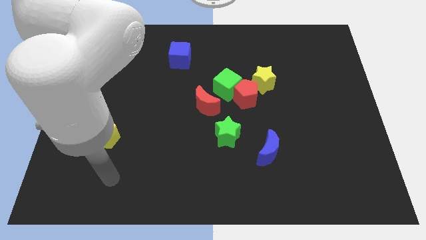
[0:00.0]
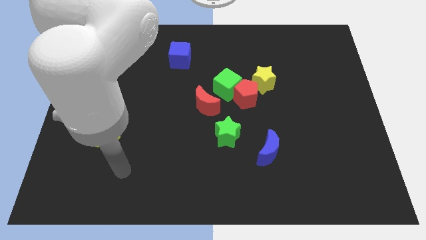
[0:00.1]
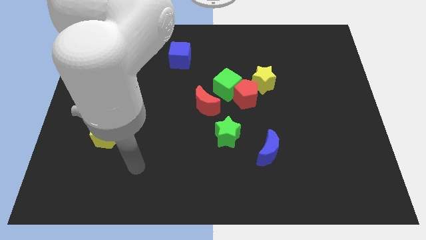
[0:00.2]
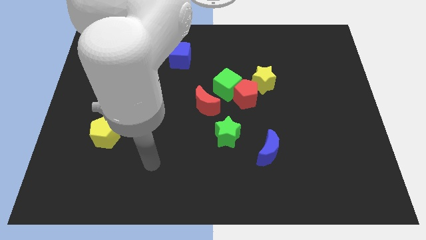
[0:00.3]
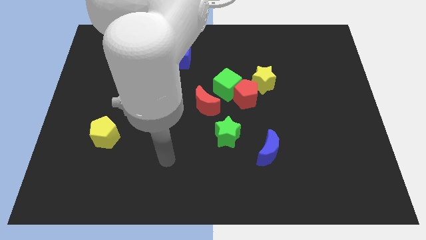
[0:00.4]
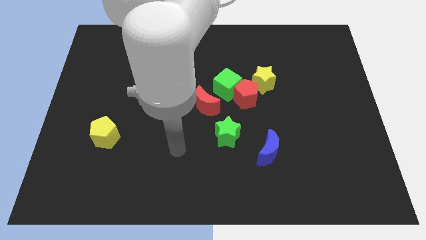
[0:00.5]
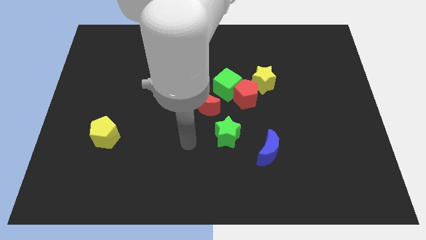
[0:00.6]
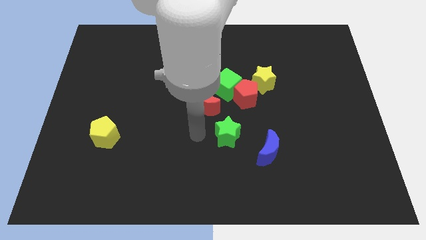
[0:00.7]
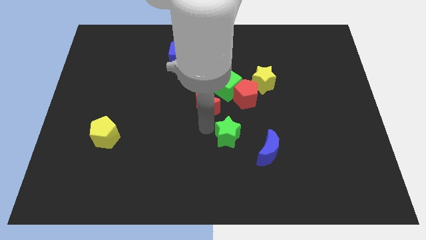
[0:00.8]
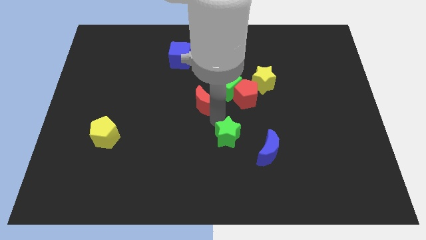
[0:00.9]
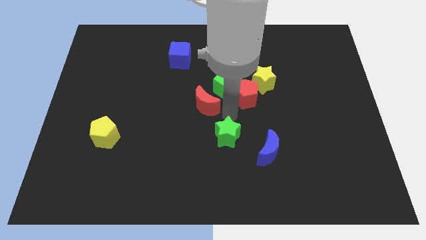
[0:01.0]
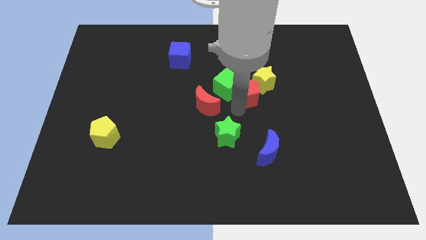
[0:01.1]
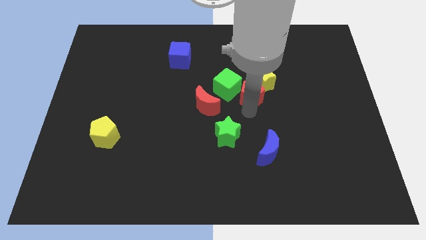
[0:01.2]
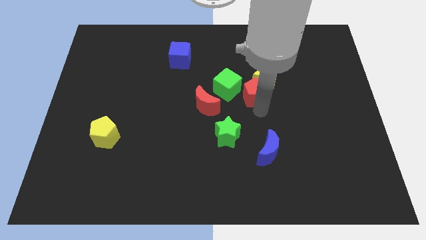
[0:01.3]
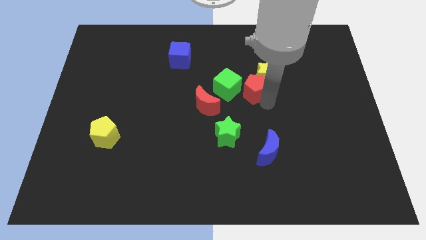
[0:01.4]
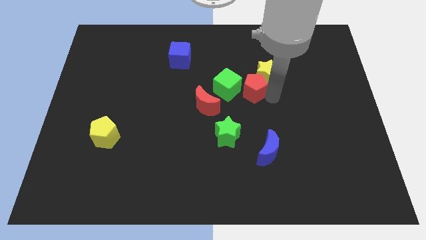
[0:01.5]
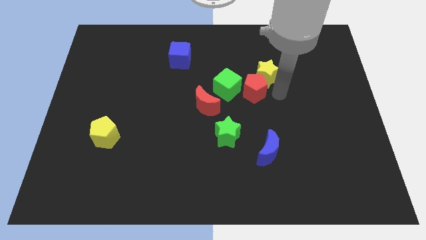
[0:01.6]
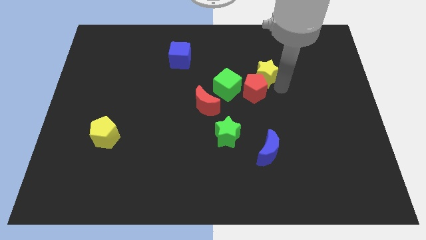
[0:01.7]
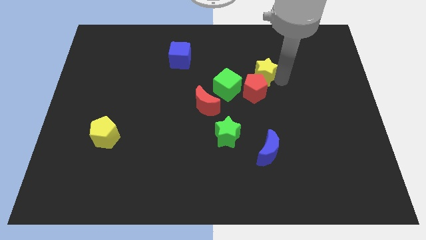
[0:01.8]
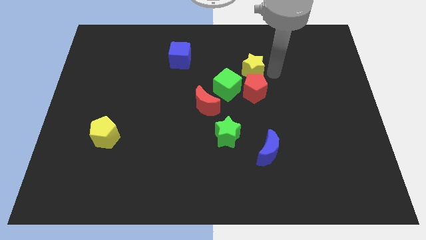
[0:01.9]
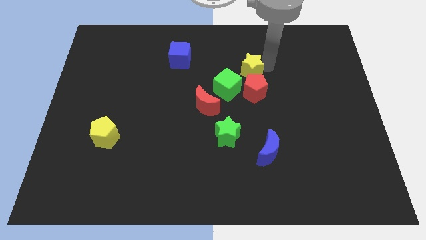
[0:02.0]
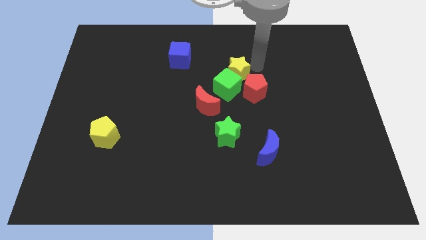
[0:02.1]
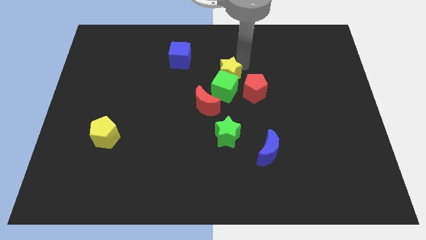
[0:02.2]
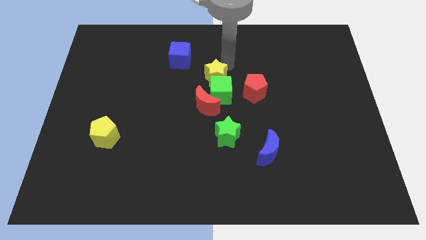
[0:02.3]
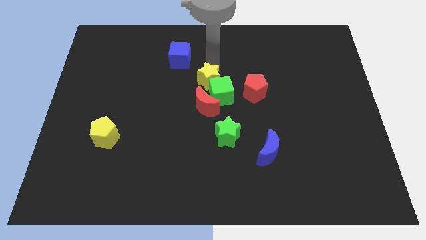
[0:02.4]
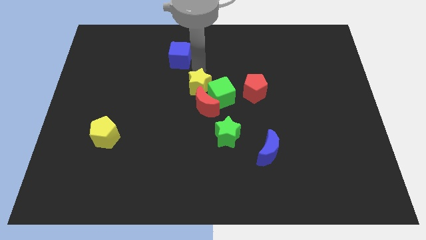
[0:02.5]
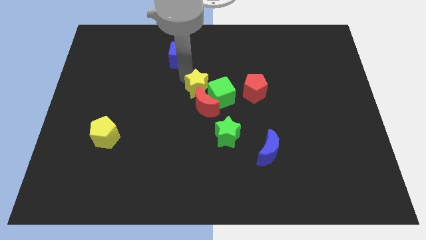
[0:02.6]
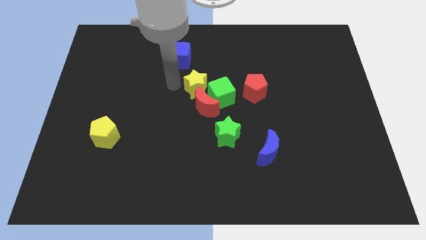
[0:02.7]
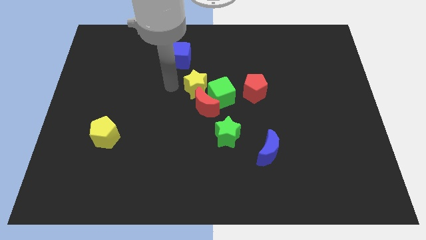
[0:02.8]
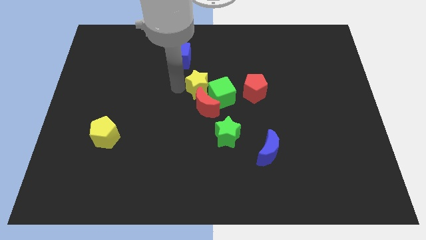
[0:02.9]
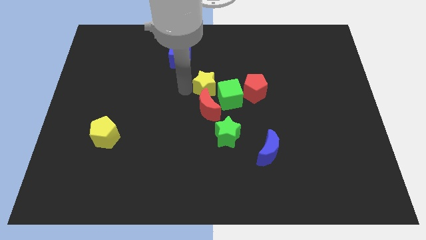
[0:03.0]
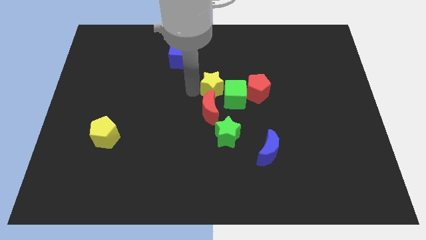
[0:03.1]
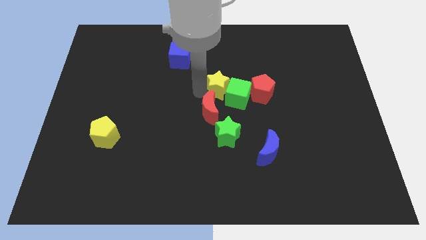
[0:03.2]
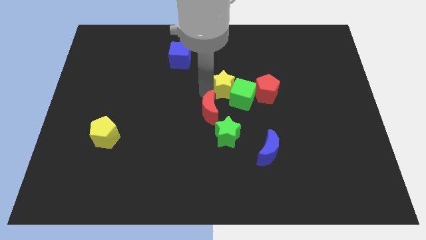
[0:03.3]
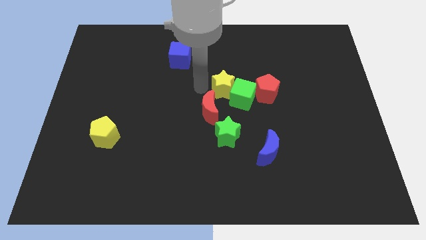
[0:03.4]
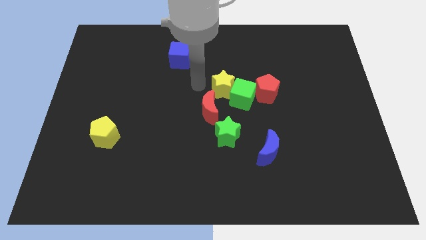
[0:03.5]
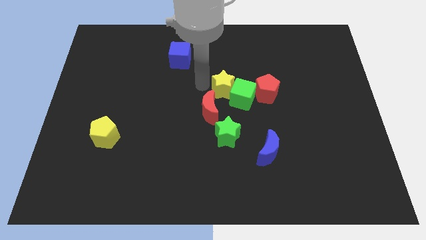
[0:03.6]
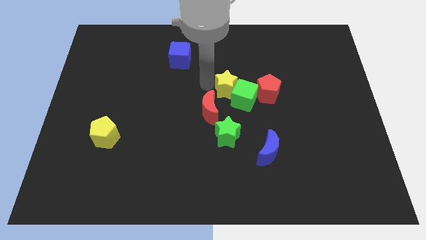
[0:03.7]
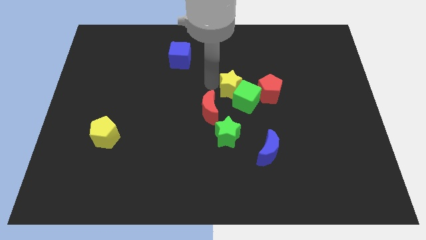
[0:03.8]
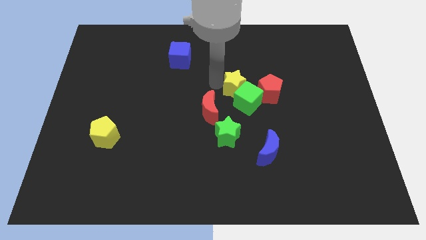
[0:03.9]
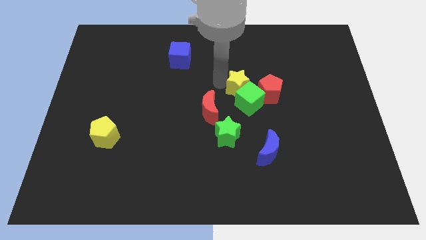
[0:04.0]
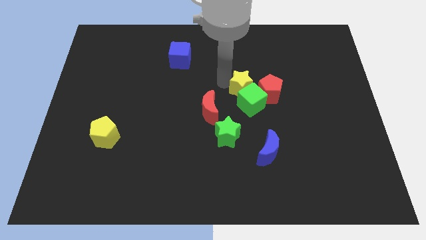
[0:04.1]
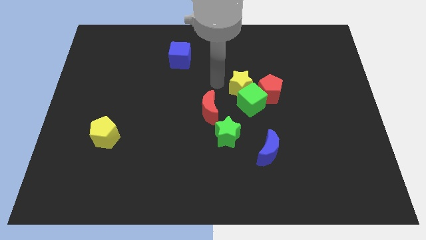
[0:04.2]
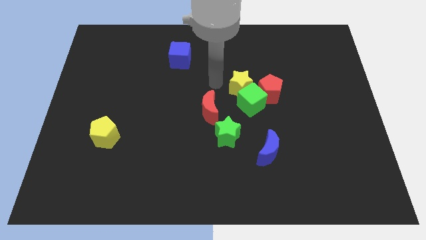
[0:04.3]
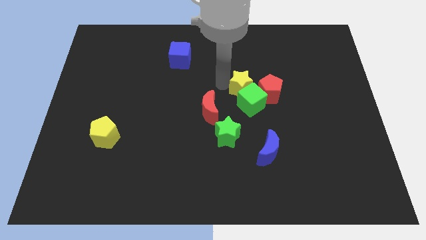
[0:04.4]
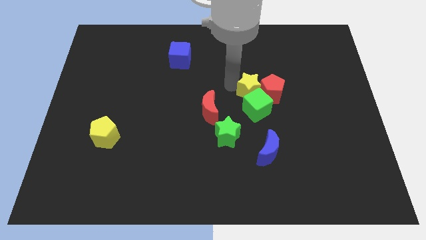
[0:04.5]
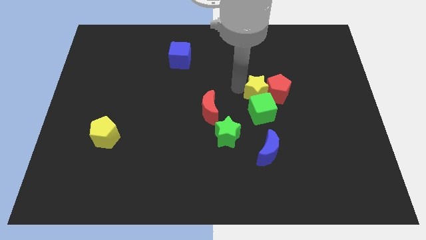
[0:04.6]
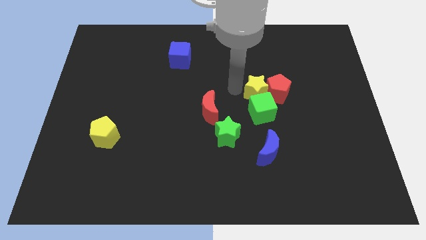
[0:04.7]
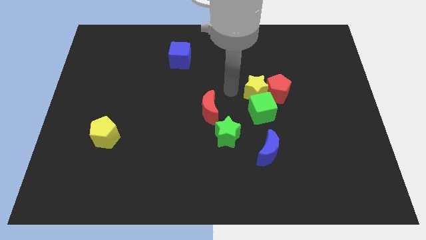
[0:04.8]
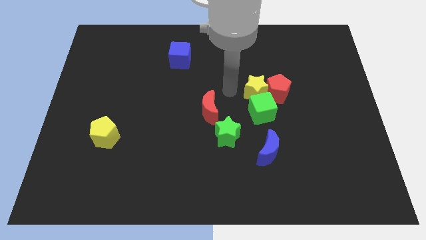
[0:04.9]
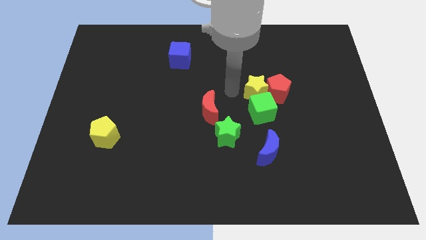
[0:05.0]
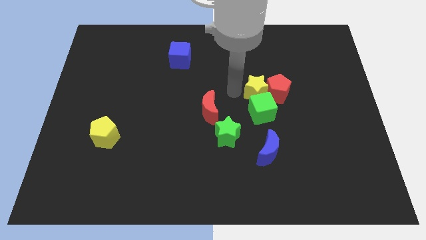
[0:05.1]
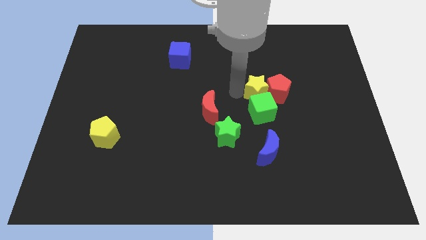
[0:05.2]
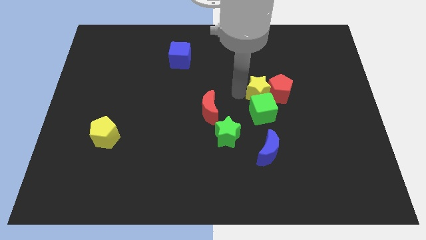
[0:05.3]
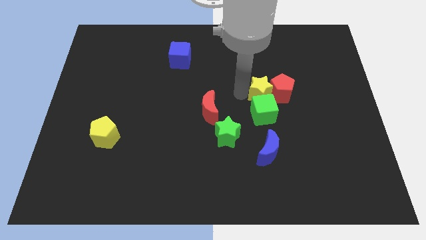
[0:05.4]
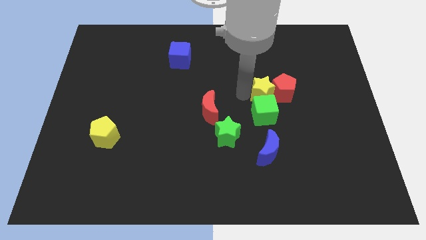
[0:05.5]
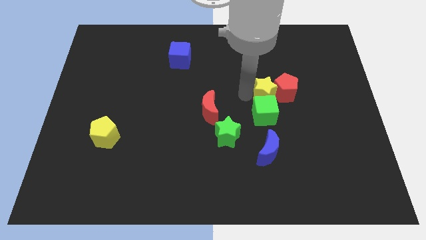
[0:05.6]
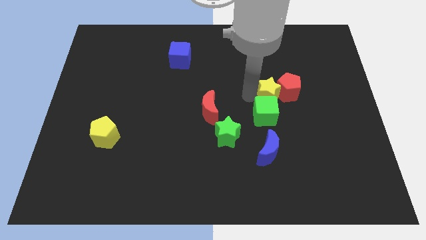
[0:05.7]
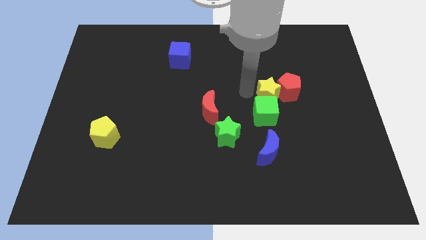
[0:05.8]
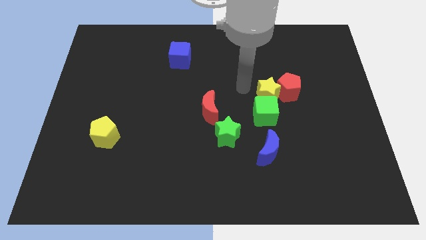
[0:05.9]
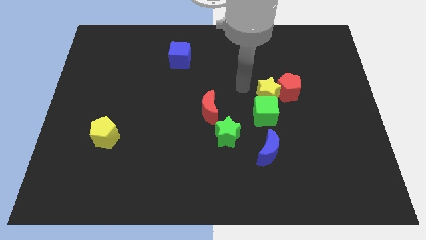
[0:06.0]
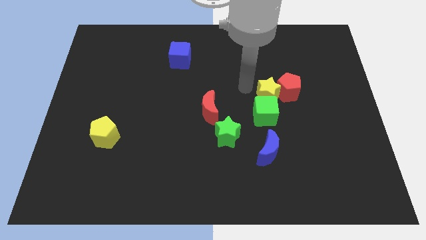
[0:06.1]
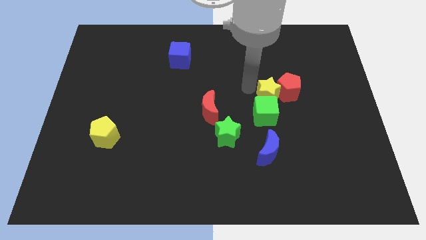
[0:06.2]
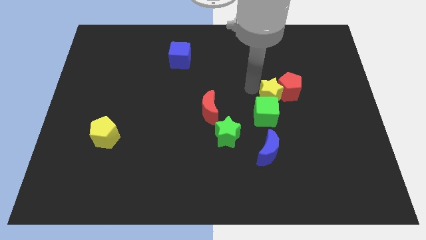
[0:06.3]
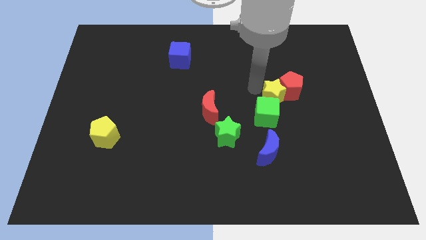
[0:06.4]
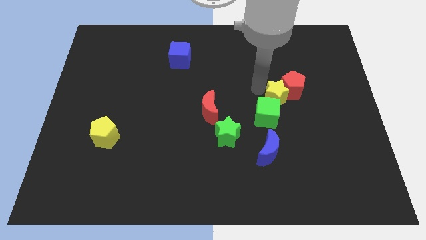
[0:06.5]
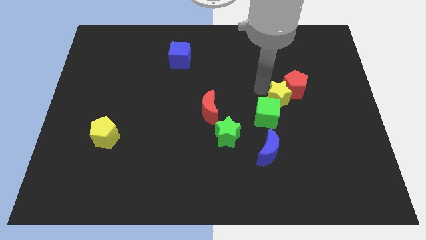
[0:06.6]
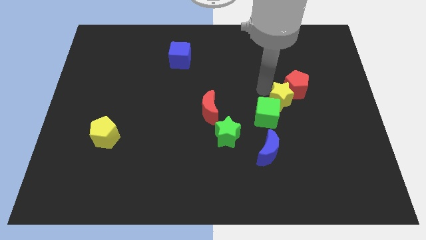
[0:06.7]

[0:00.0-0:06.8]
push the yellow star somewhat diagonally down and to the right

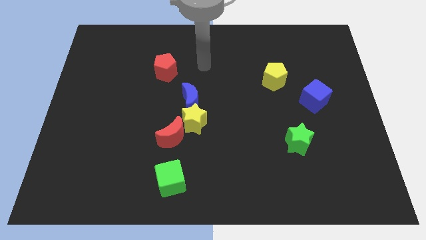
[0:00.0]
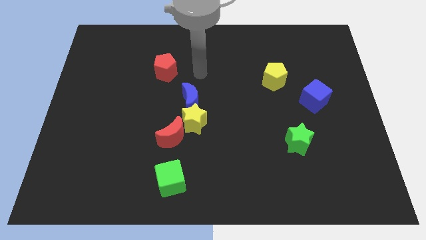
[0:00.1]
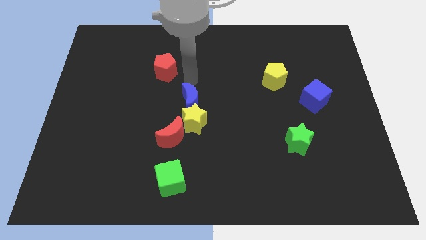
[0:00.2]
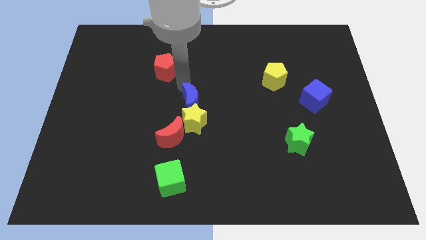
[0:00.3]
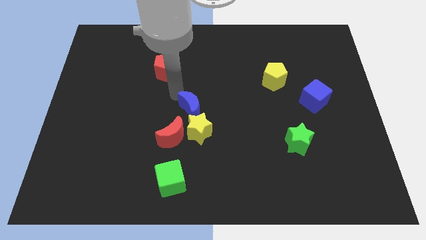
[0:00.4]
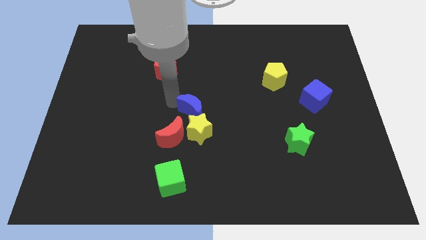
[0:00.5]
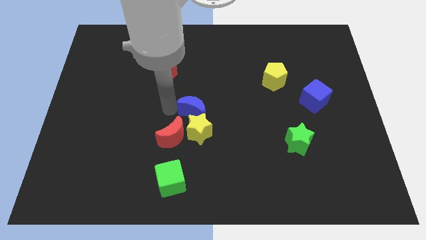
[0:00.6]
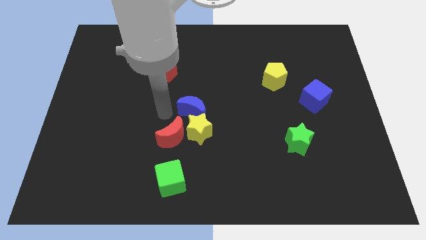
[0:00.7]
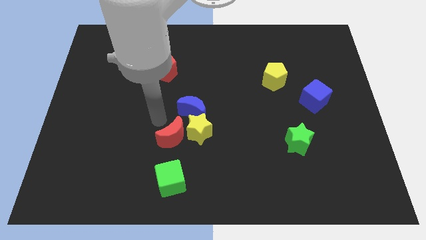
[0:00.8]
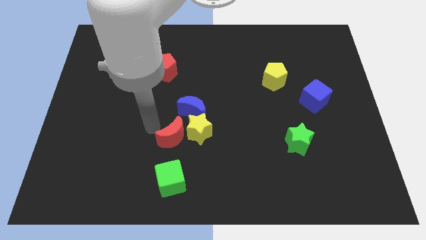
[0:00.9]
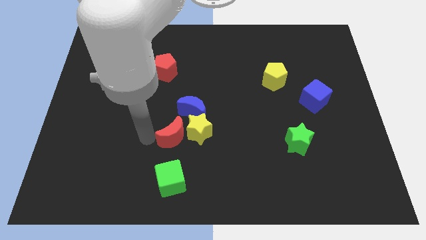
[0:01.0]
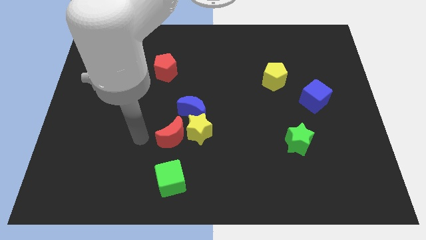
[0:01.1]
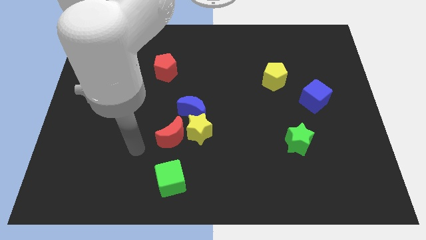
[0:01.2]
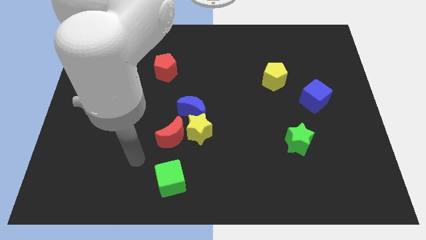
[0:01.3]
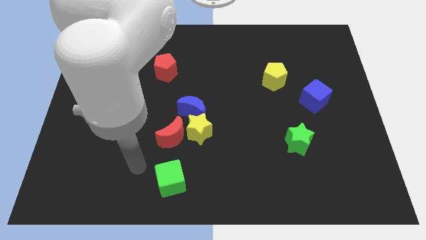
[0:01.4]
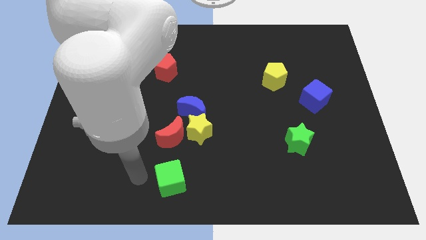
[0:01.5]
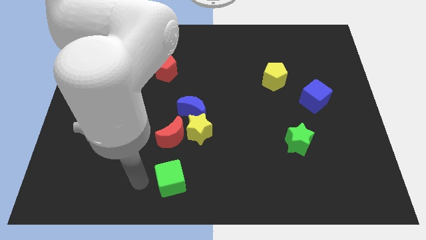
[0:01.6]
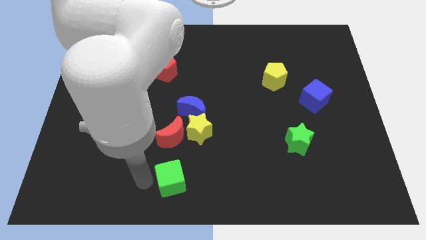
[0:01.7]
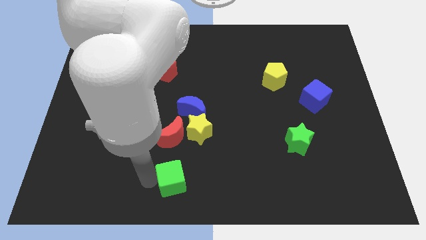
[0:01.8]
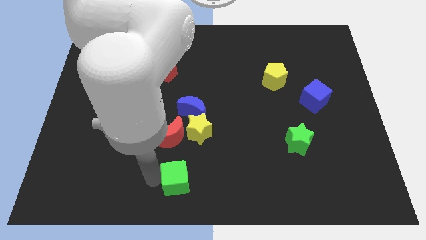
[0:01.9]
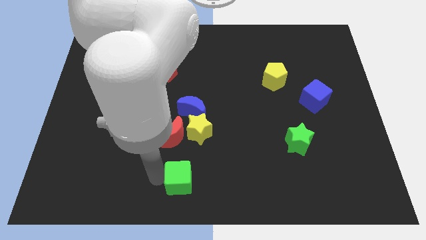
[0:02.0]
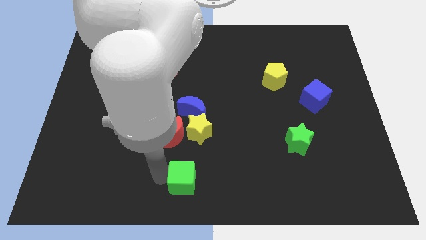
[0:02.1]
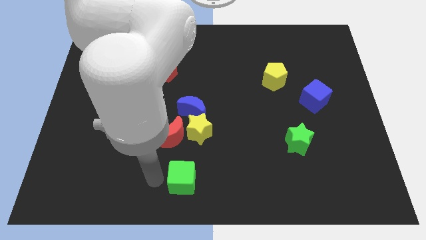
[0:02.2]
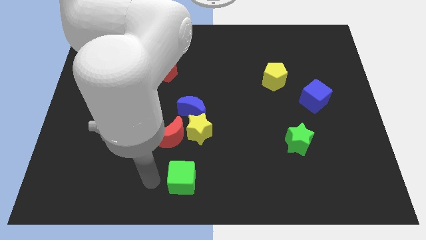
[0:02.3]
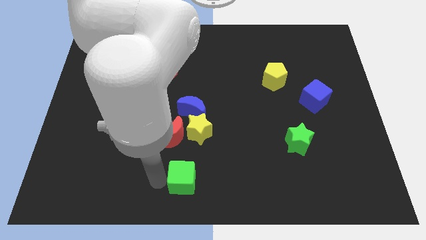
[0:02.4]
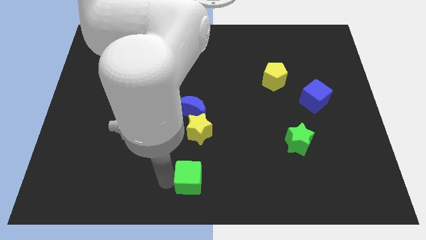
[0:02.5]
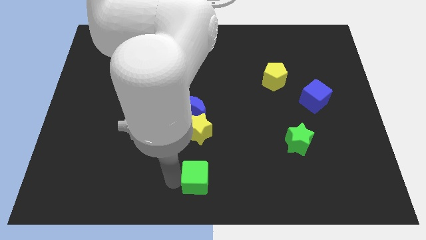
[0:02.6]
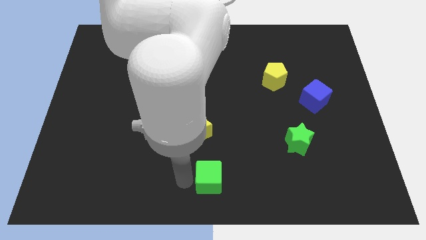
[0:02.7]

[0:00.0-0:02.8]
move the green cube right somewhat
